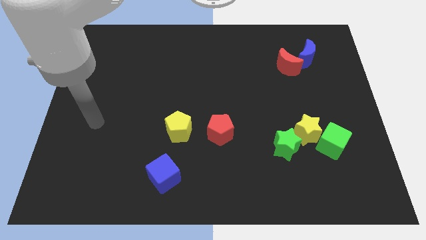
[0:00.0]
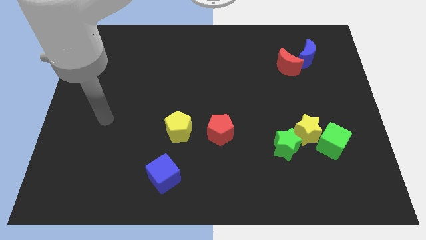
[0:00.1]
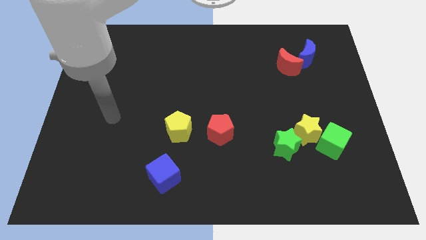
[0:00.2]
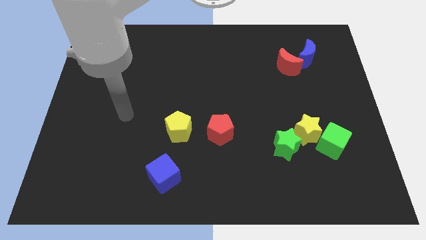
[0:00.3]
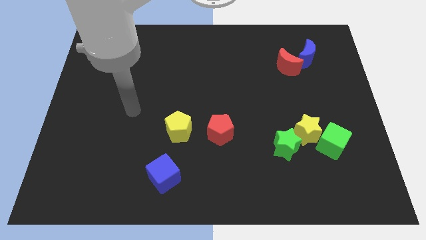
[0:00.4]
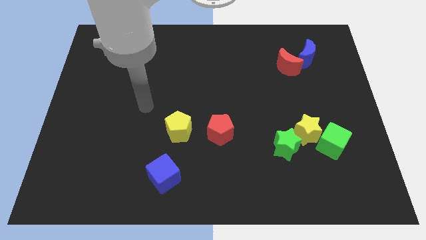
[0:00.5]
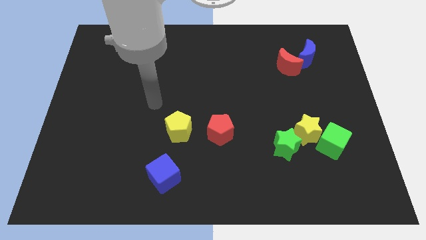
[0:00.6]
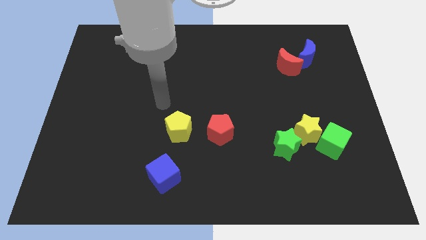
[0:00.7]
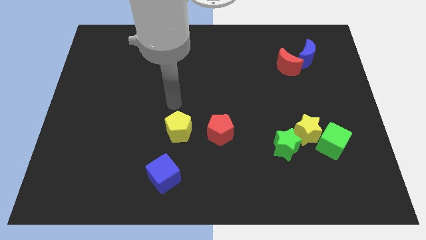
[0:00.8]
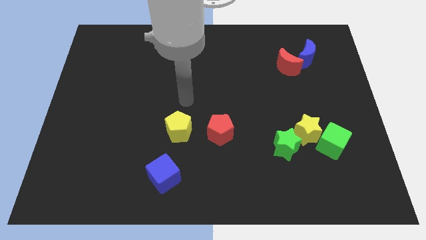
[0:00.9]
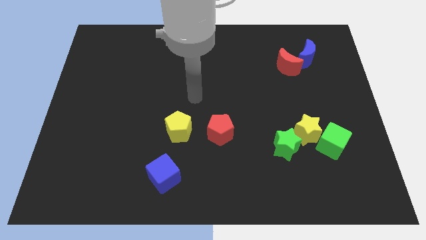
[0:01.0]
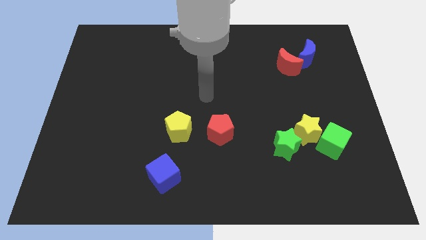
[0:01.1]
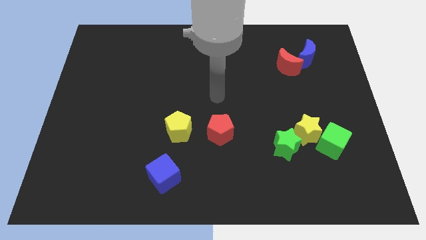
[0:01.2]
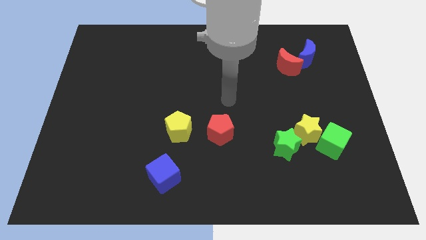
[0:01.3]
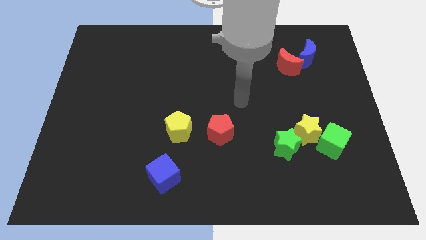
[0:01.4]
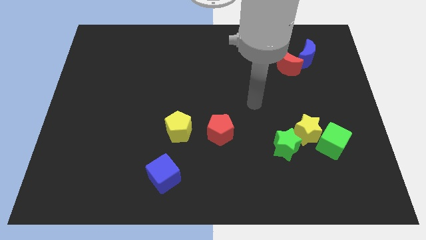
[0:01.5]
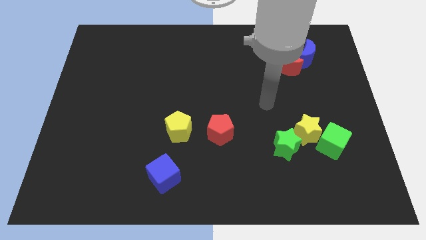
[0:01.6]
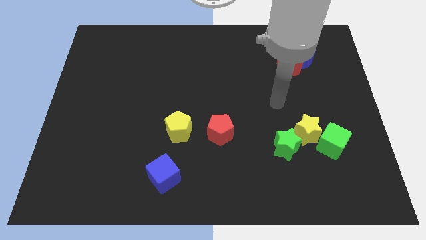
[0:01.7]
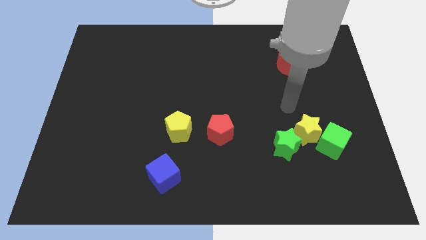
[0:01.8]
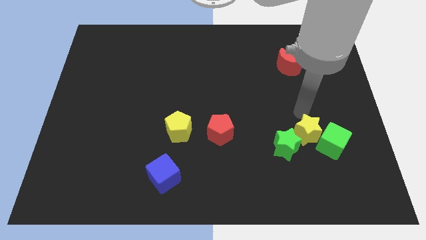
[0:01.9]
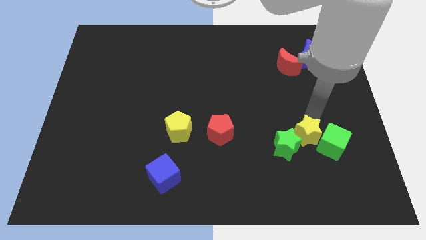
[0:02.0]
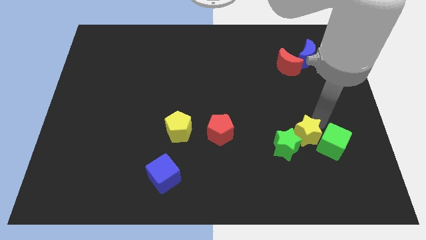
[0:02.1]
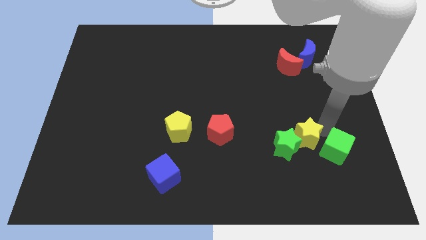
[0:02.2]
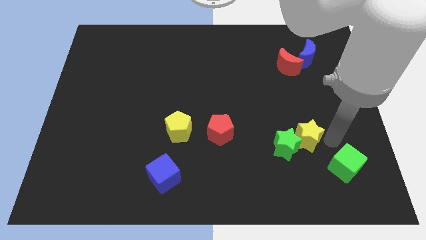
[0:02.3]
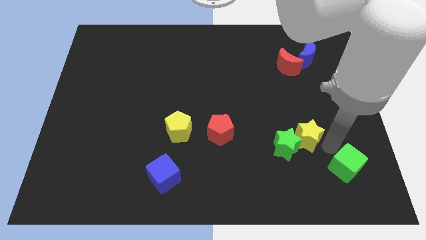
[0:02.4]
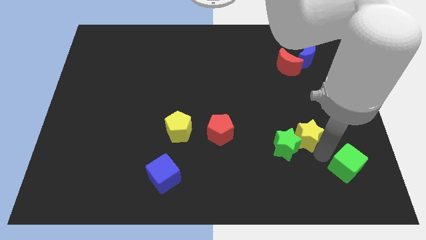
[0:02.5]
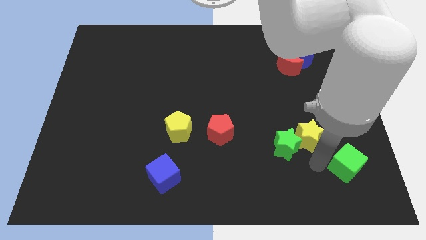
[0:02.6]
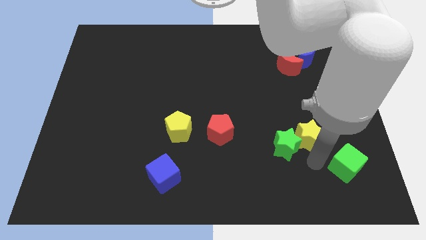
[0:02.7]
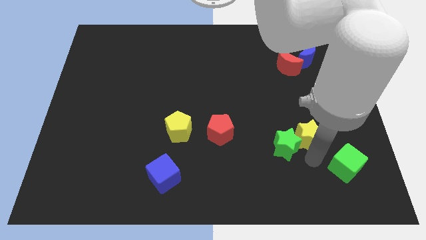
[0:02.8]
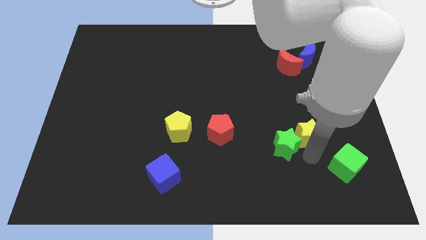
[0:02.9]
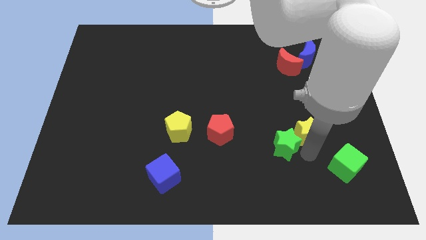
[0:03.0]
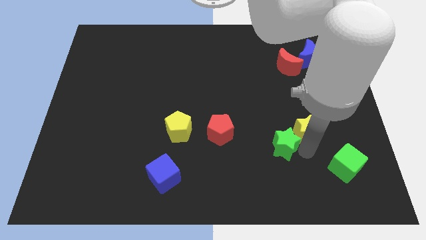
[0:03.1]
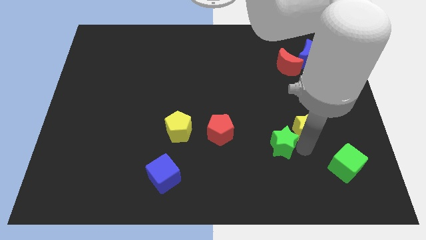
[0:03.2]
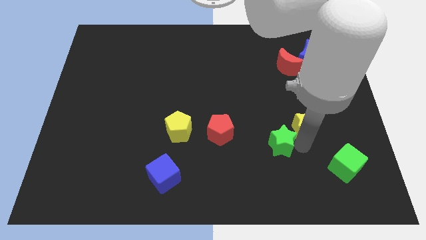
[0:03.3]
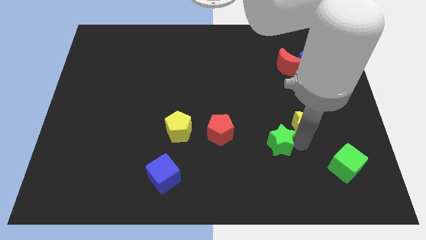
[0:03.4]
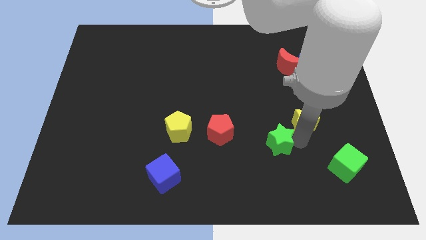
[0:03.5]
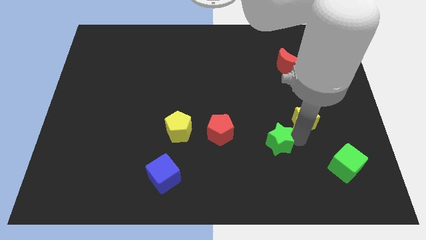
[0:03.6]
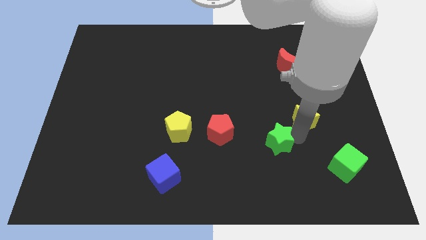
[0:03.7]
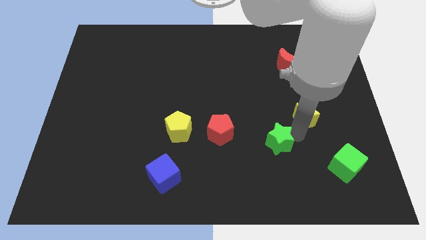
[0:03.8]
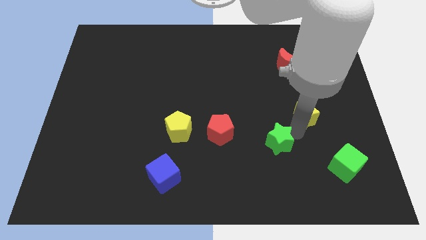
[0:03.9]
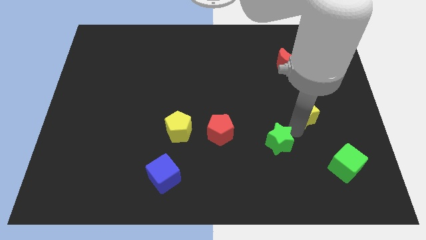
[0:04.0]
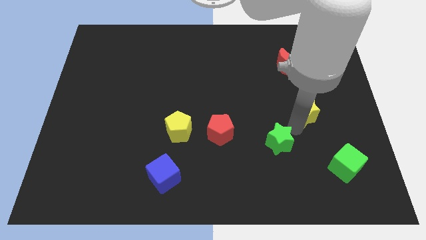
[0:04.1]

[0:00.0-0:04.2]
pull the yellow star apart from the green cube and green star

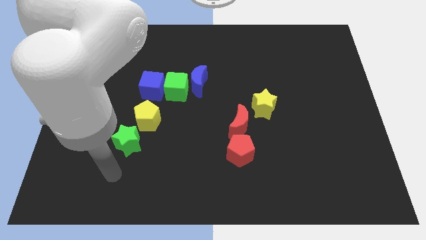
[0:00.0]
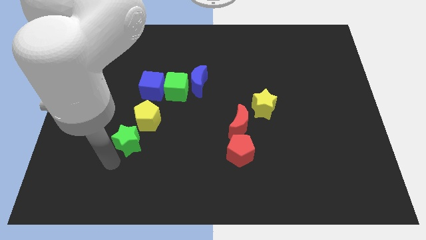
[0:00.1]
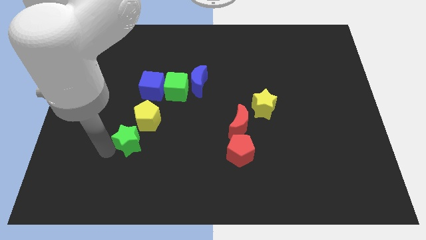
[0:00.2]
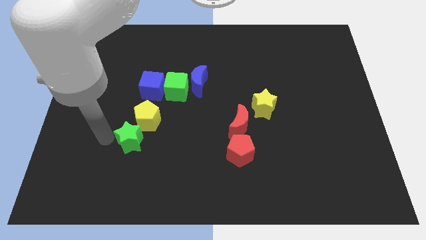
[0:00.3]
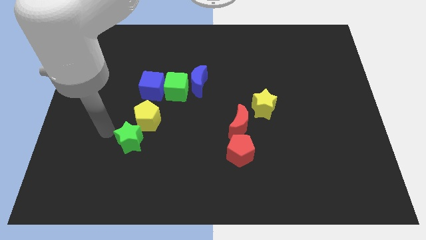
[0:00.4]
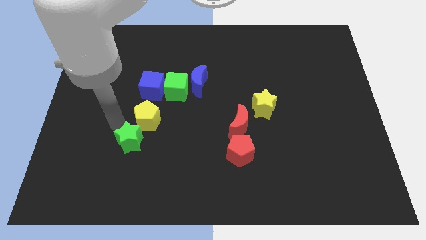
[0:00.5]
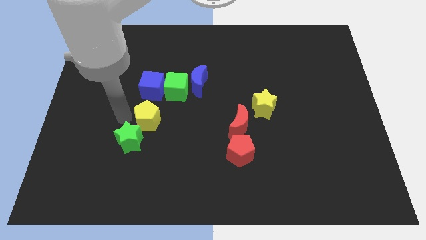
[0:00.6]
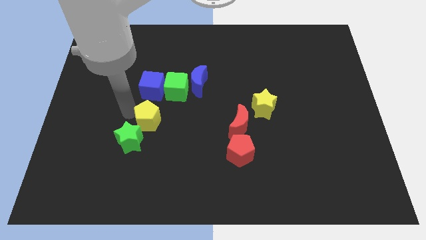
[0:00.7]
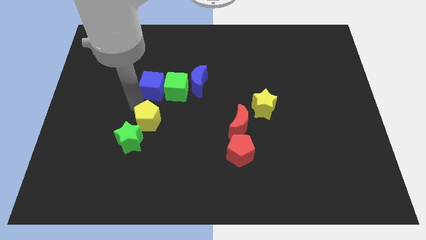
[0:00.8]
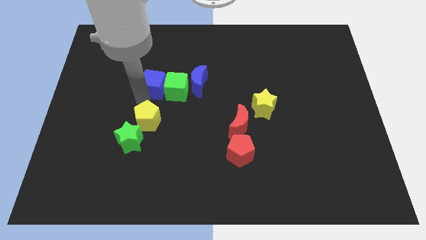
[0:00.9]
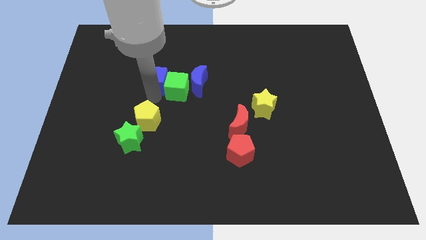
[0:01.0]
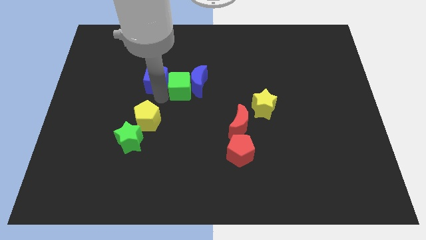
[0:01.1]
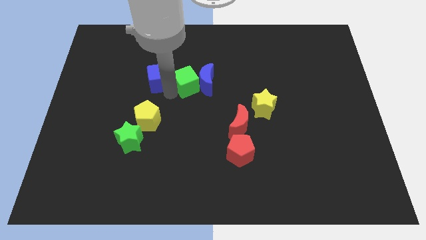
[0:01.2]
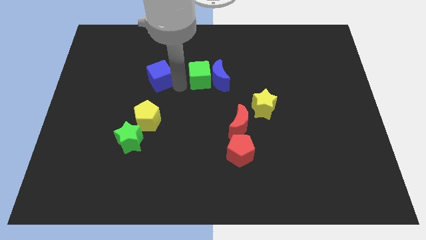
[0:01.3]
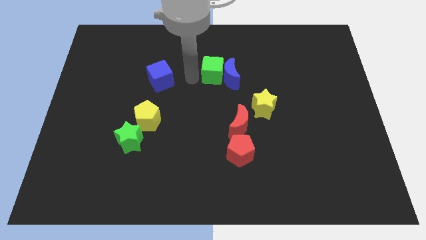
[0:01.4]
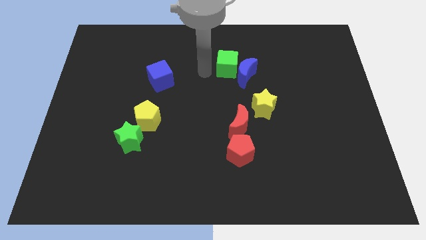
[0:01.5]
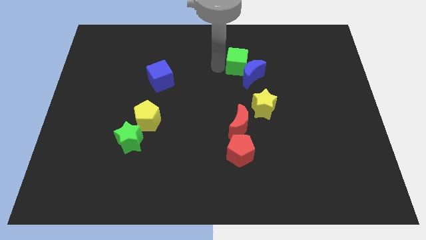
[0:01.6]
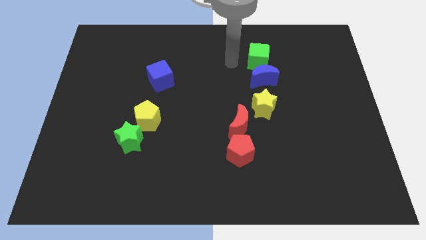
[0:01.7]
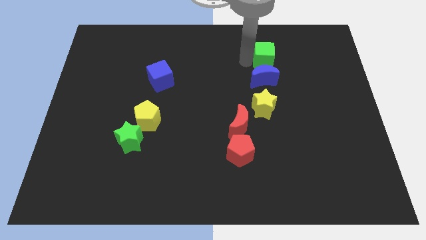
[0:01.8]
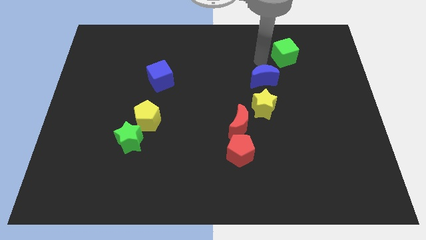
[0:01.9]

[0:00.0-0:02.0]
separate the blue moon from the green cube

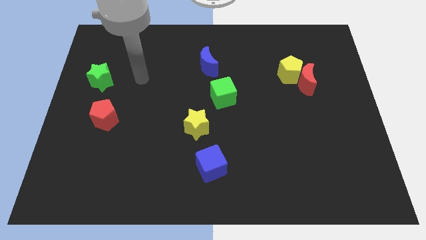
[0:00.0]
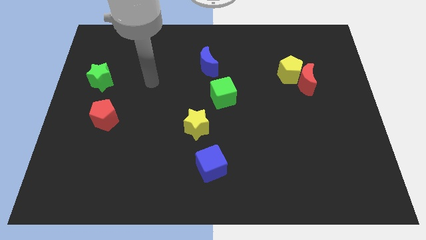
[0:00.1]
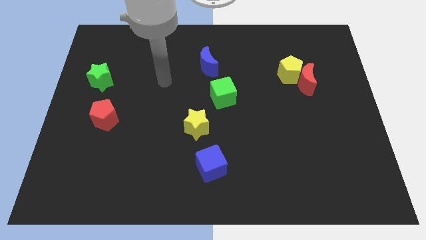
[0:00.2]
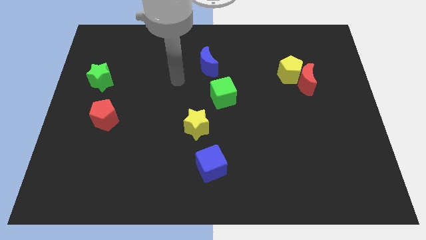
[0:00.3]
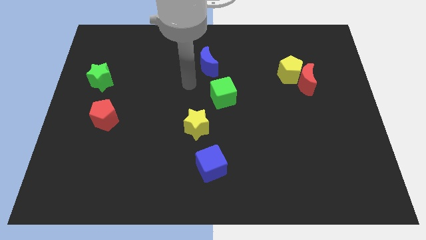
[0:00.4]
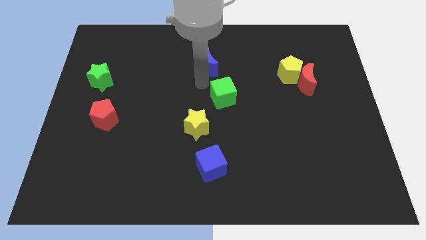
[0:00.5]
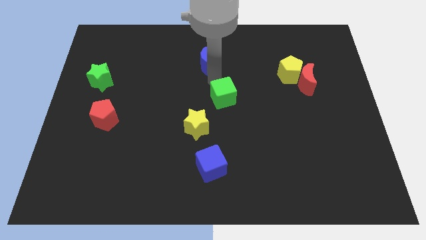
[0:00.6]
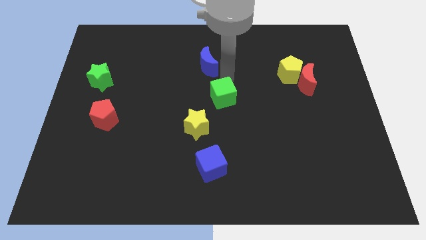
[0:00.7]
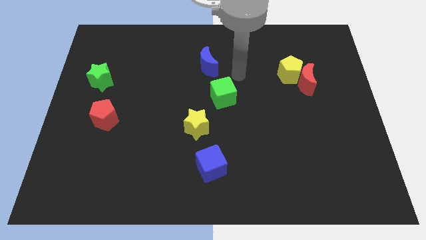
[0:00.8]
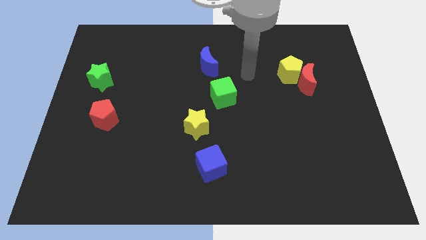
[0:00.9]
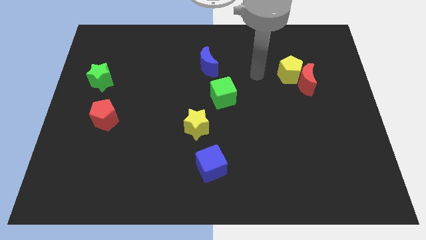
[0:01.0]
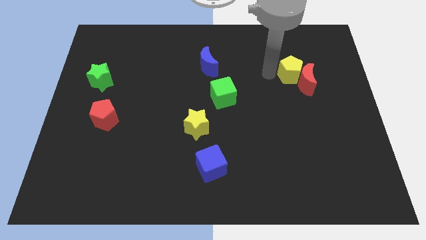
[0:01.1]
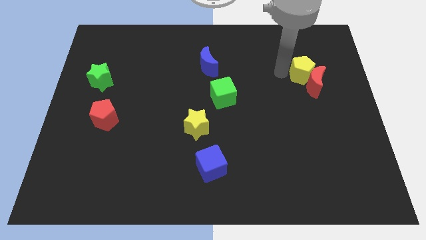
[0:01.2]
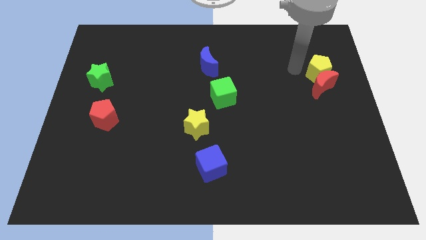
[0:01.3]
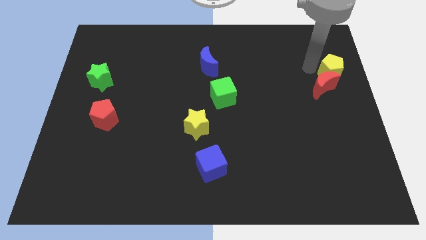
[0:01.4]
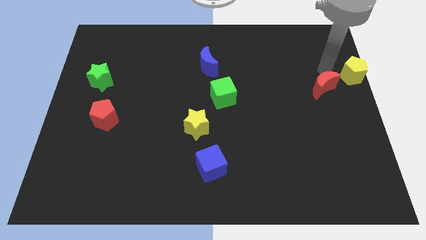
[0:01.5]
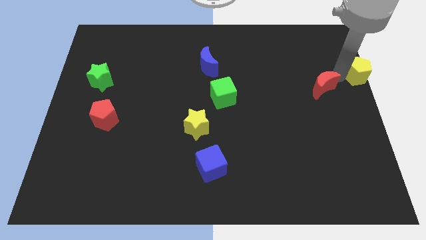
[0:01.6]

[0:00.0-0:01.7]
separate the red moon from the yellow pentagon

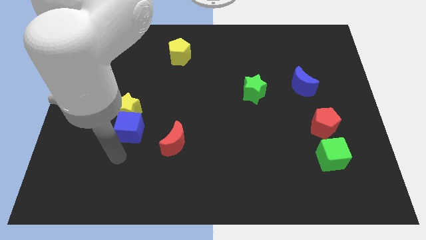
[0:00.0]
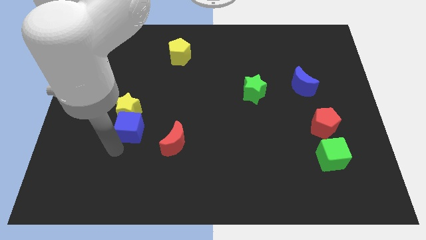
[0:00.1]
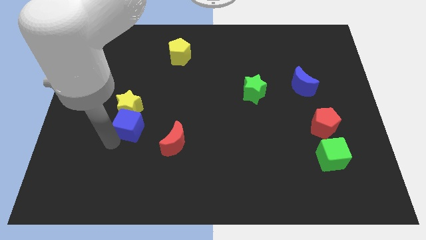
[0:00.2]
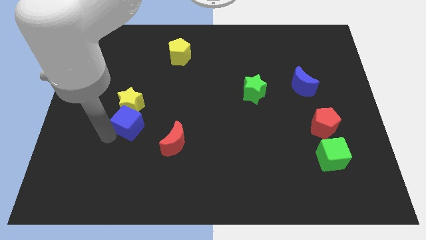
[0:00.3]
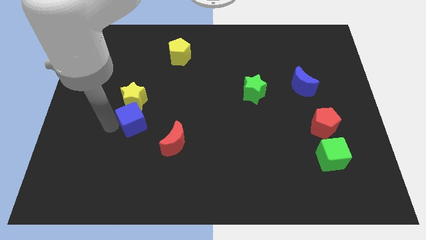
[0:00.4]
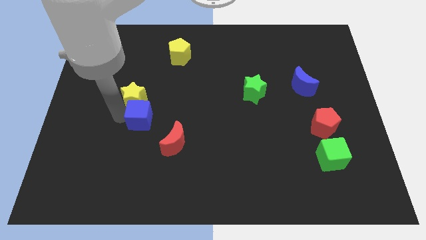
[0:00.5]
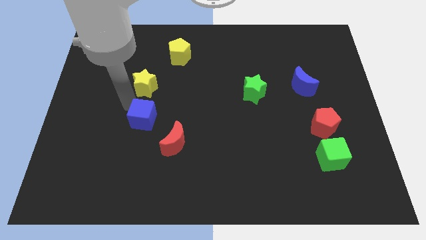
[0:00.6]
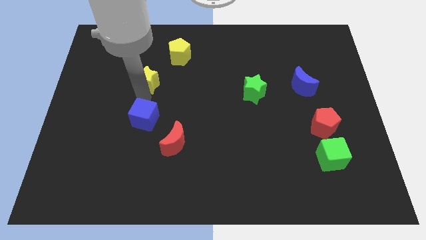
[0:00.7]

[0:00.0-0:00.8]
pull the blue cube apart from the yellow star

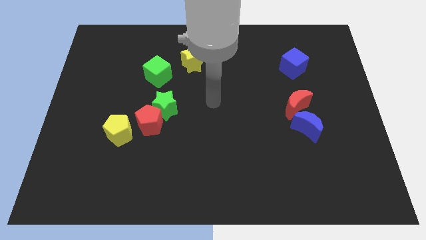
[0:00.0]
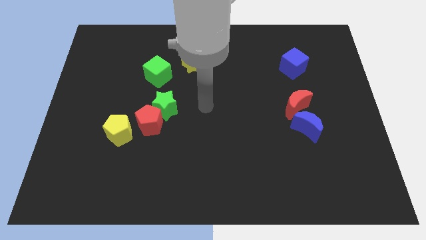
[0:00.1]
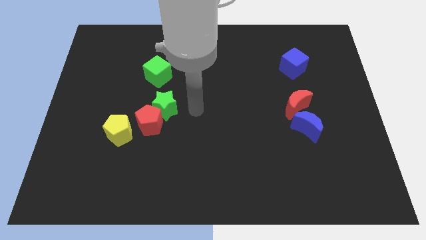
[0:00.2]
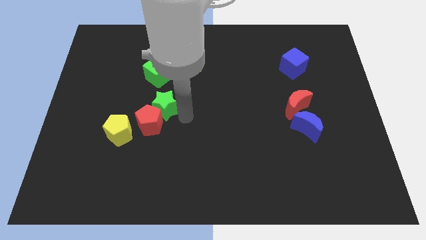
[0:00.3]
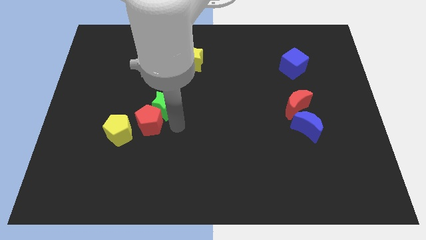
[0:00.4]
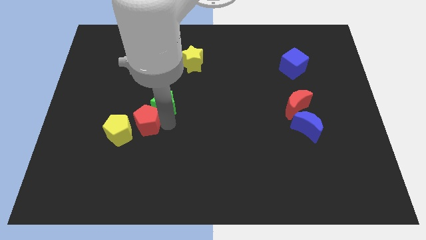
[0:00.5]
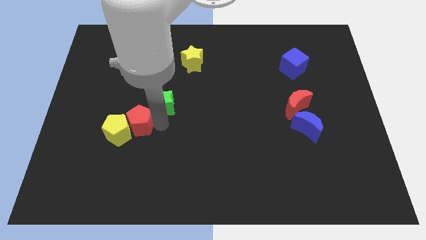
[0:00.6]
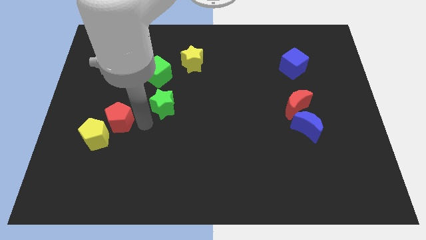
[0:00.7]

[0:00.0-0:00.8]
pull the green star apart from the red pentagon
